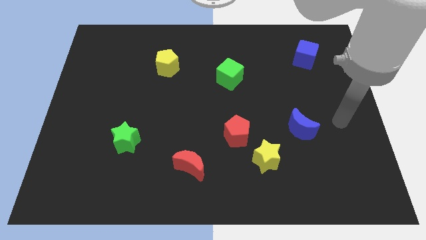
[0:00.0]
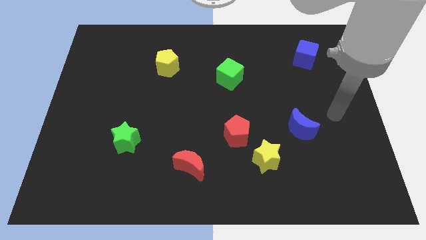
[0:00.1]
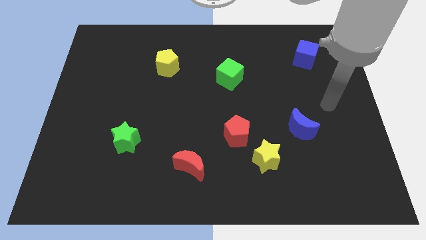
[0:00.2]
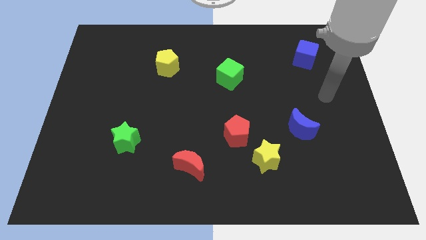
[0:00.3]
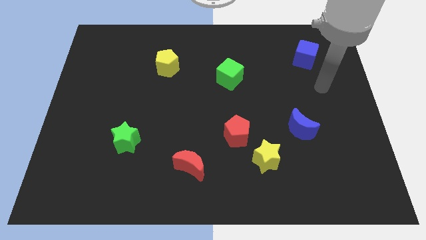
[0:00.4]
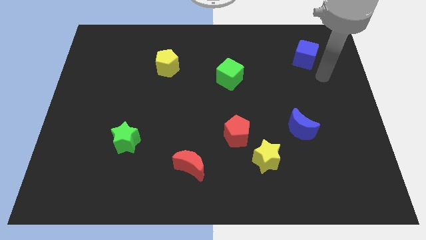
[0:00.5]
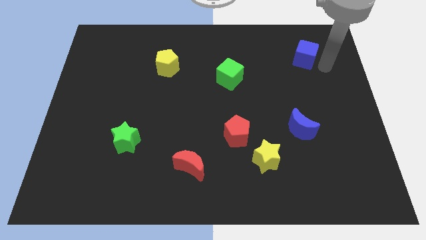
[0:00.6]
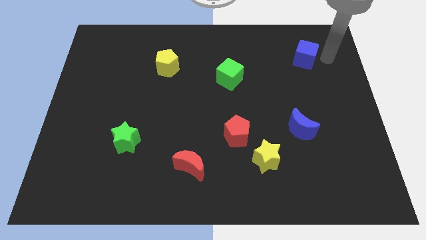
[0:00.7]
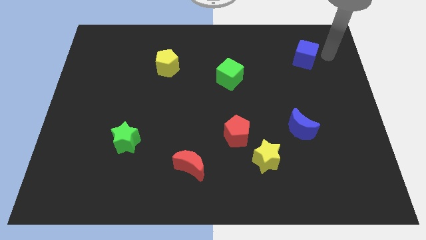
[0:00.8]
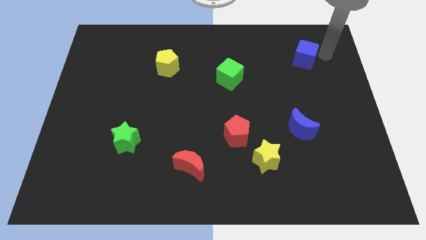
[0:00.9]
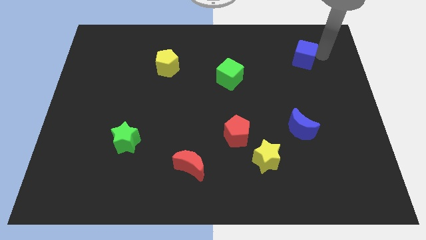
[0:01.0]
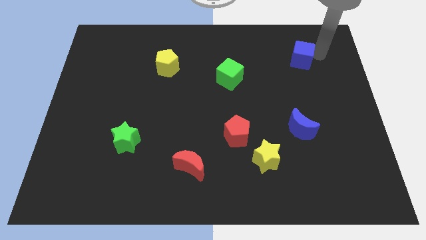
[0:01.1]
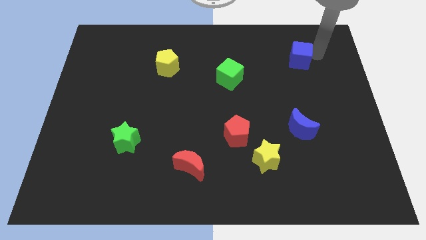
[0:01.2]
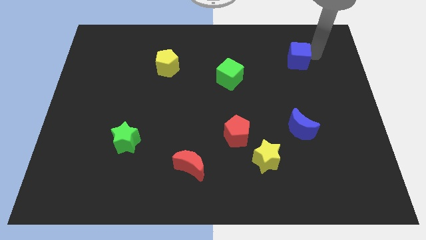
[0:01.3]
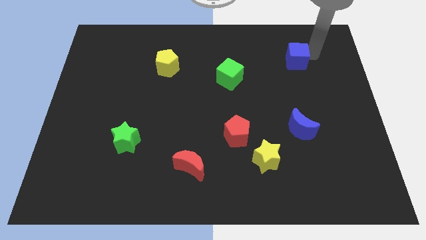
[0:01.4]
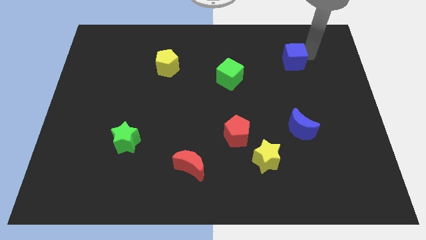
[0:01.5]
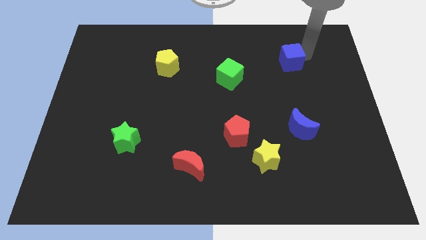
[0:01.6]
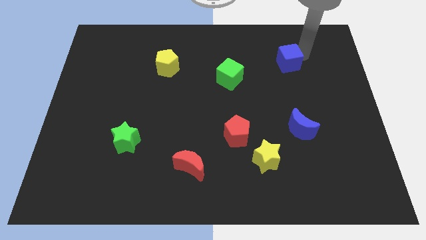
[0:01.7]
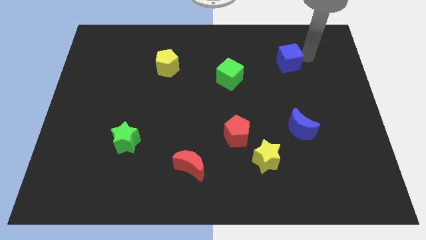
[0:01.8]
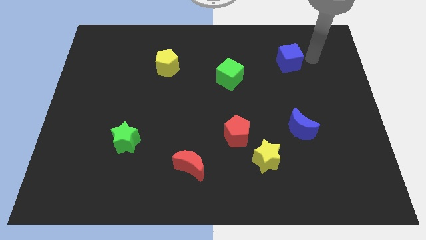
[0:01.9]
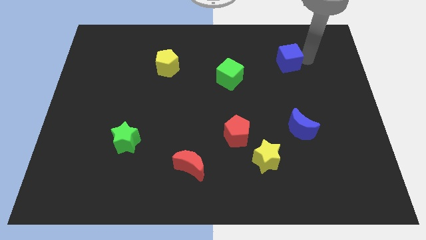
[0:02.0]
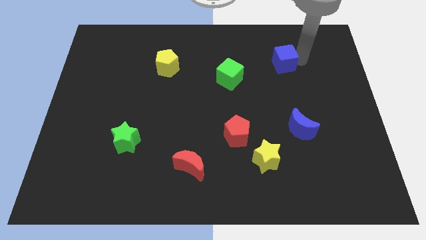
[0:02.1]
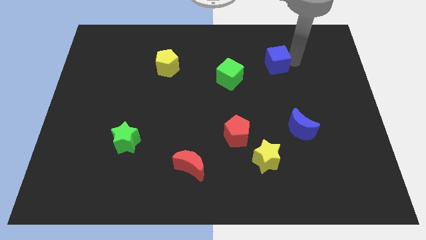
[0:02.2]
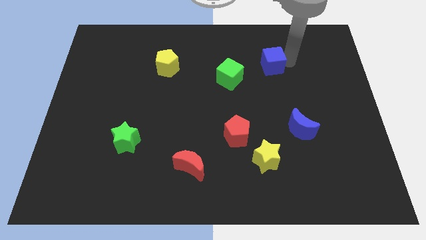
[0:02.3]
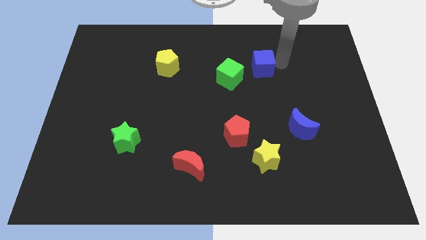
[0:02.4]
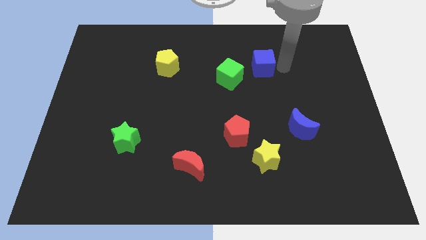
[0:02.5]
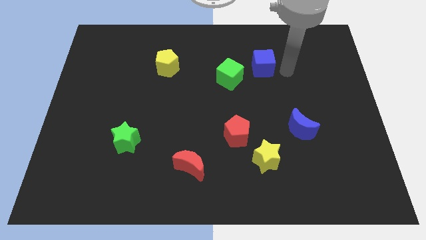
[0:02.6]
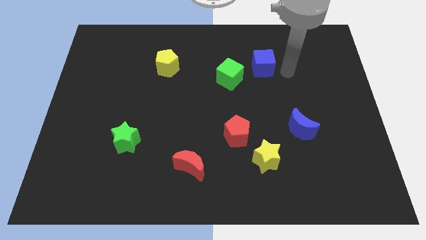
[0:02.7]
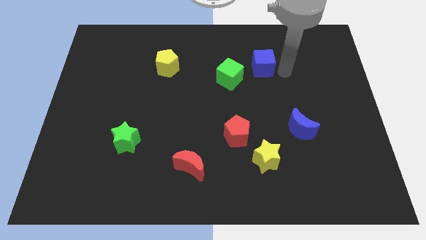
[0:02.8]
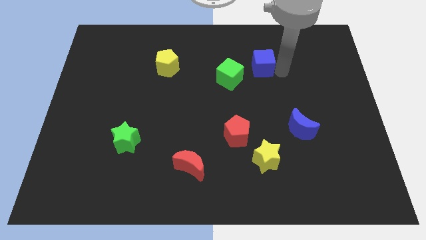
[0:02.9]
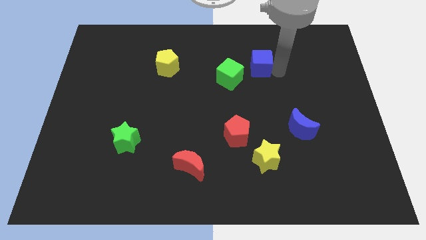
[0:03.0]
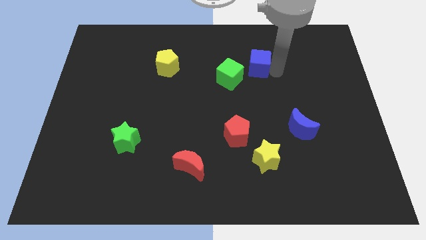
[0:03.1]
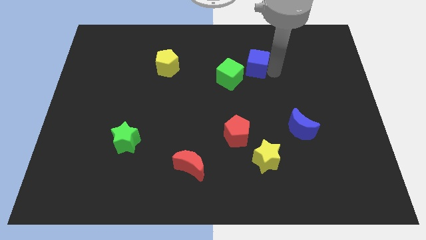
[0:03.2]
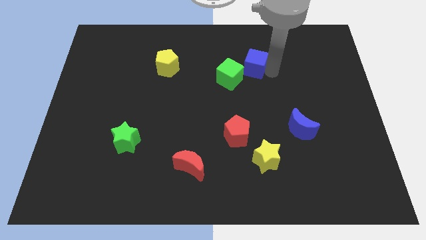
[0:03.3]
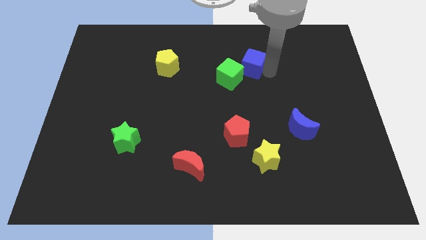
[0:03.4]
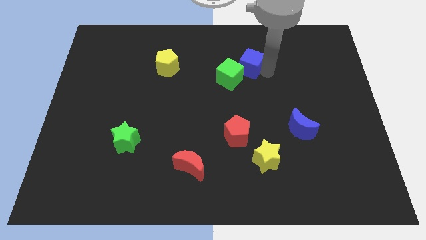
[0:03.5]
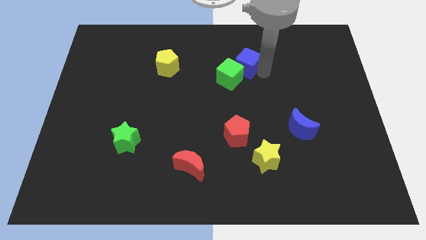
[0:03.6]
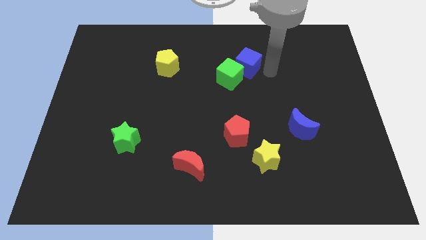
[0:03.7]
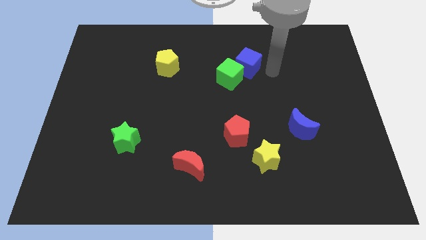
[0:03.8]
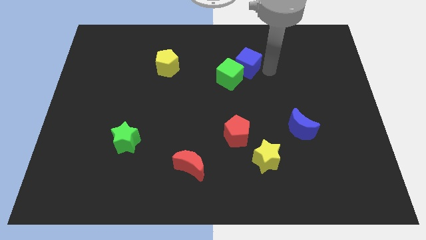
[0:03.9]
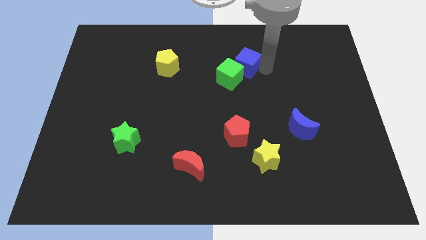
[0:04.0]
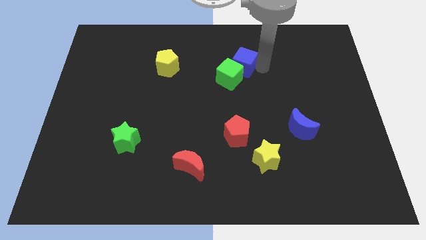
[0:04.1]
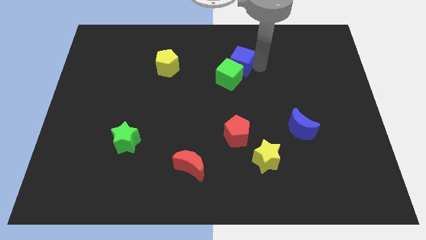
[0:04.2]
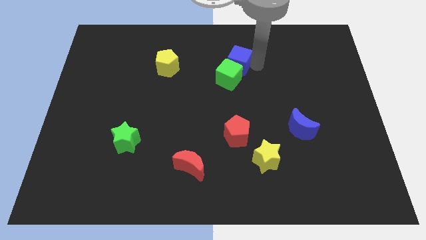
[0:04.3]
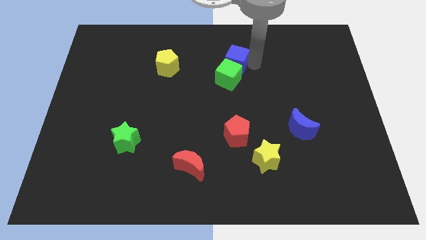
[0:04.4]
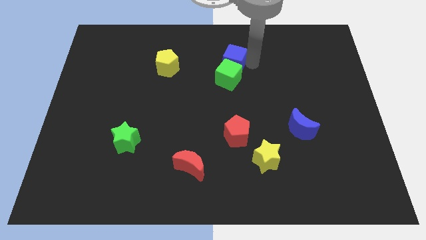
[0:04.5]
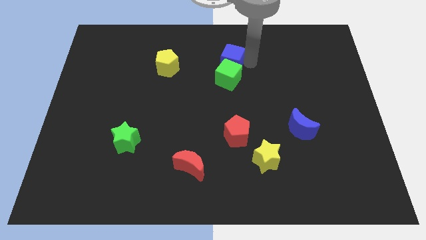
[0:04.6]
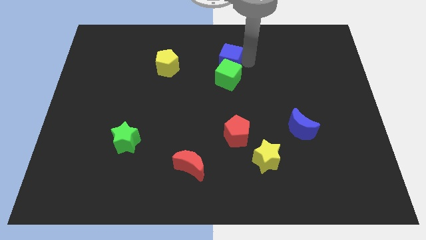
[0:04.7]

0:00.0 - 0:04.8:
move the blue cube to the left

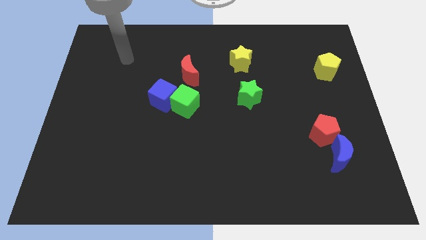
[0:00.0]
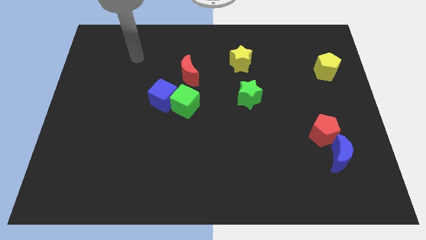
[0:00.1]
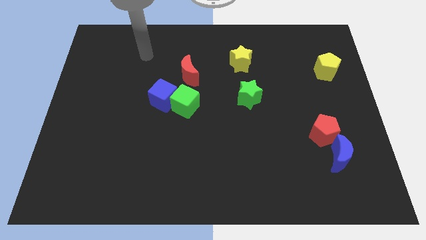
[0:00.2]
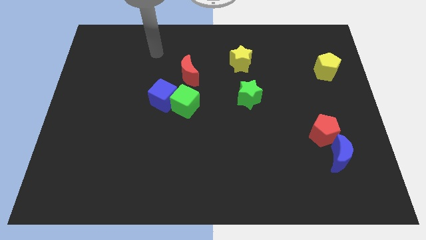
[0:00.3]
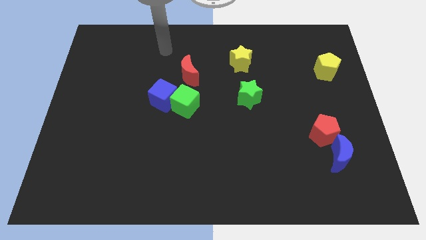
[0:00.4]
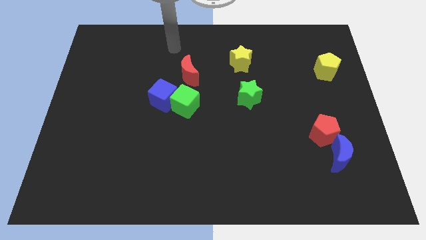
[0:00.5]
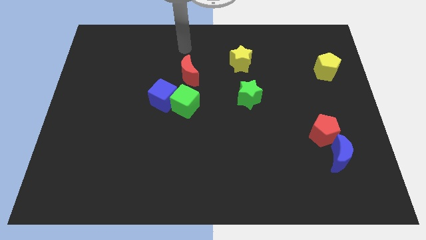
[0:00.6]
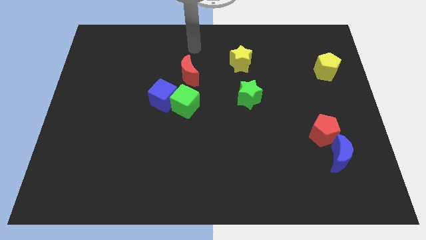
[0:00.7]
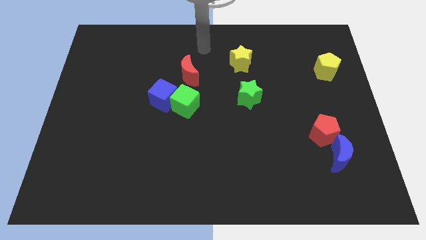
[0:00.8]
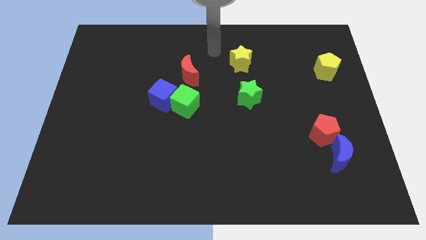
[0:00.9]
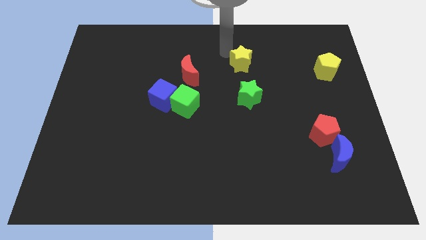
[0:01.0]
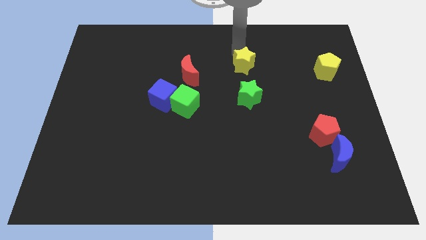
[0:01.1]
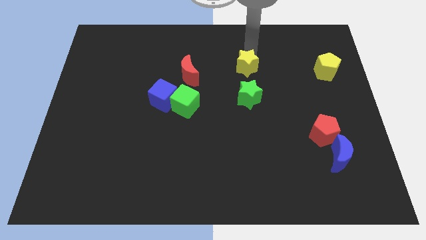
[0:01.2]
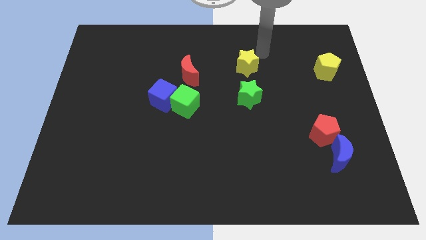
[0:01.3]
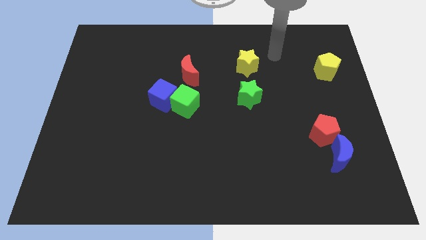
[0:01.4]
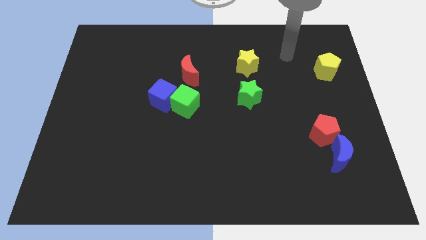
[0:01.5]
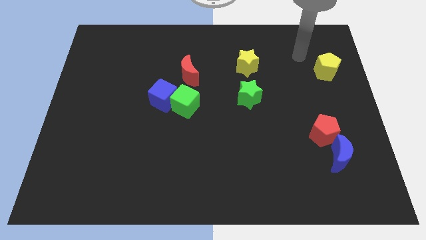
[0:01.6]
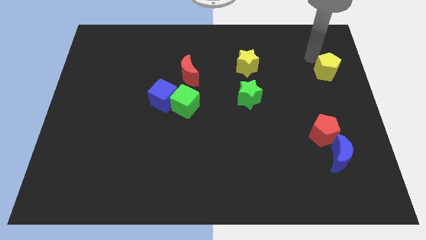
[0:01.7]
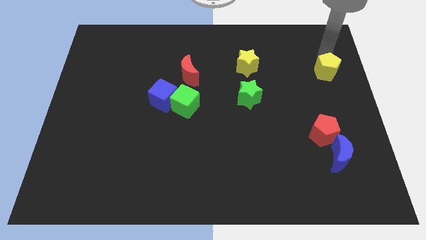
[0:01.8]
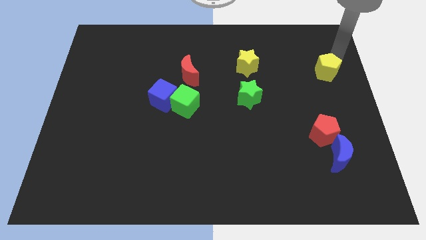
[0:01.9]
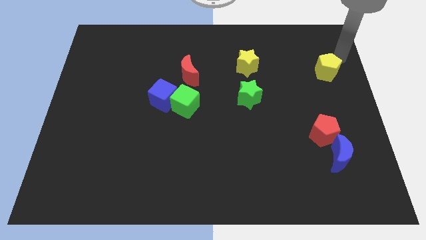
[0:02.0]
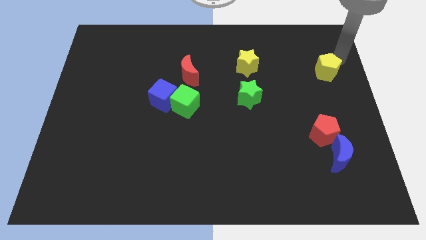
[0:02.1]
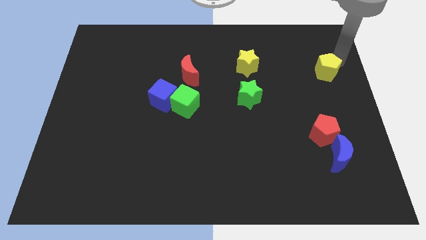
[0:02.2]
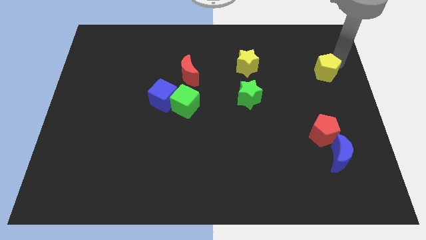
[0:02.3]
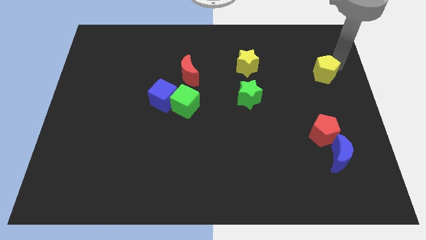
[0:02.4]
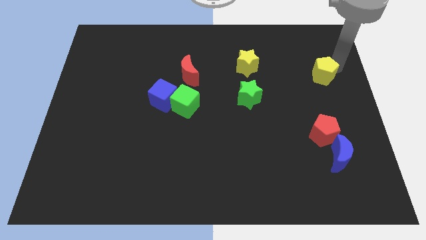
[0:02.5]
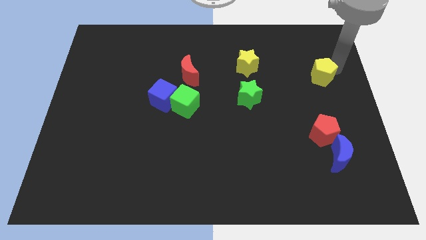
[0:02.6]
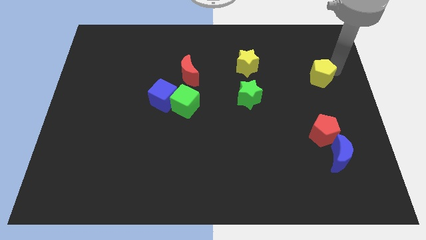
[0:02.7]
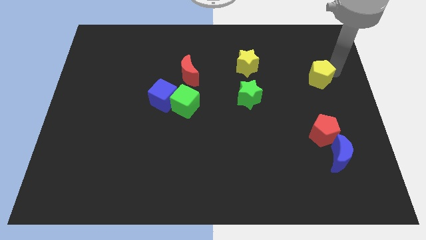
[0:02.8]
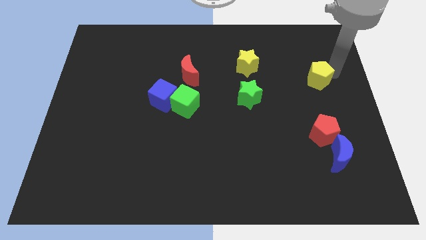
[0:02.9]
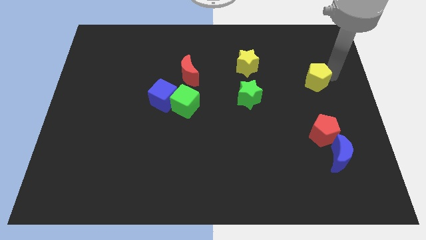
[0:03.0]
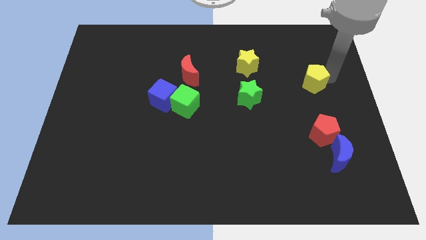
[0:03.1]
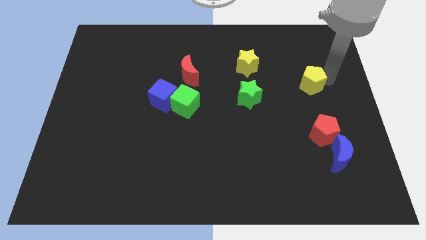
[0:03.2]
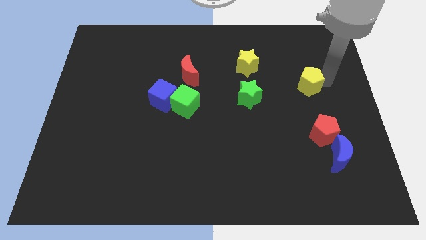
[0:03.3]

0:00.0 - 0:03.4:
slide the yellow pentagon downwards and then to the left a little bit
